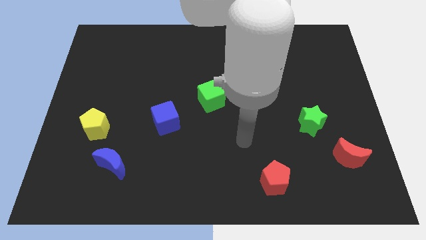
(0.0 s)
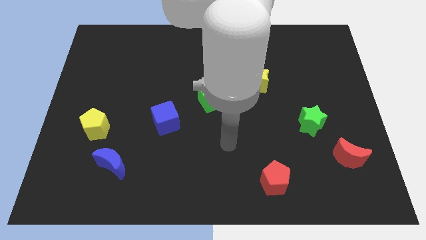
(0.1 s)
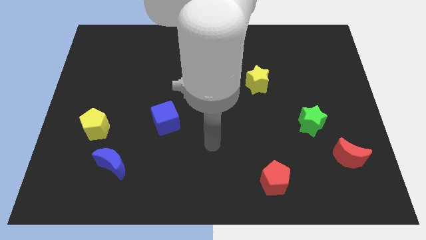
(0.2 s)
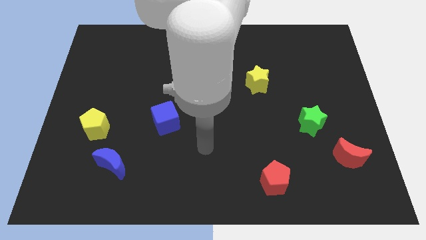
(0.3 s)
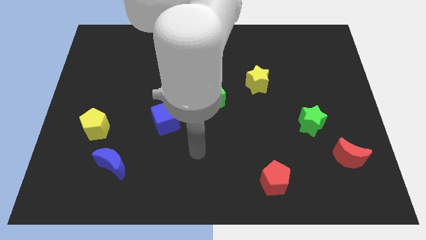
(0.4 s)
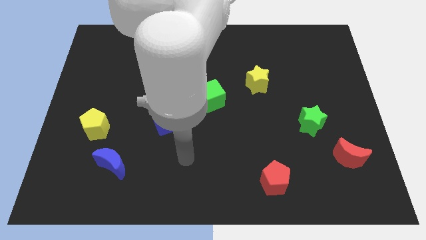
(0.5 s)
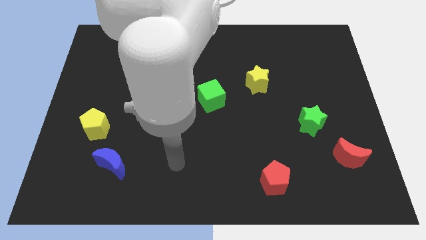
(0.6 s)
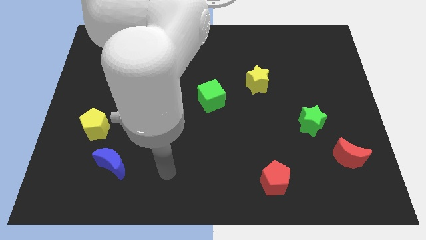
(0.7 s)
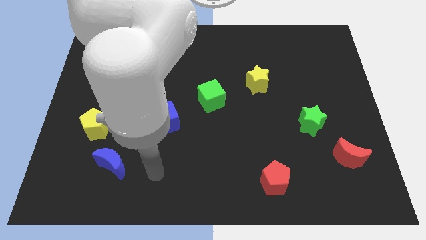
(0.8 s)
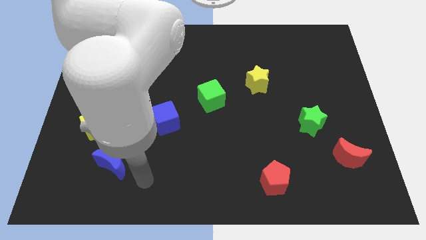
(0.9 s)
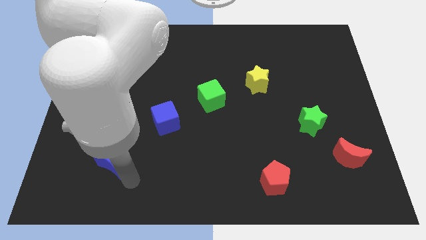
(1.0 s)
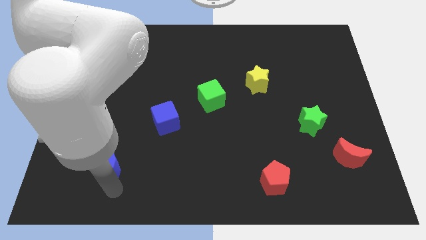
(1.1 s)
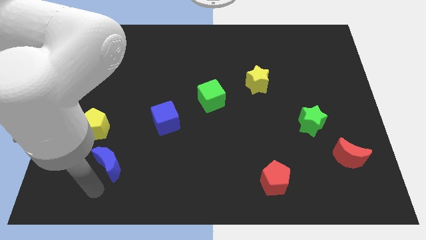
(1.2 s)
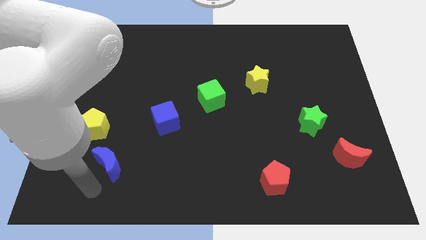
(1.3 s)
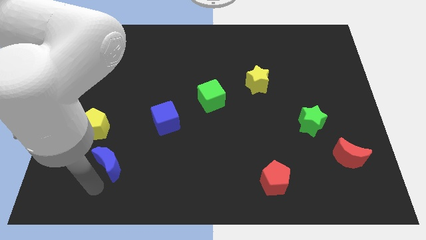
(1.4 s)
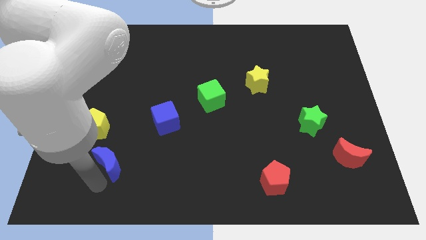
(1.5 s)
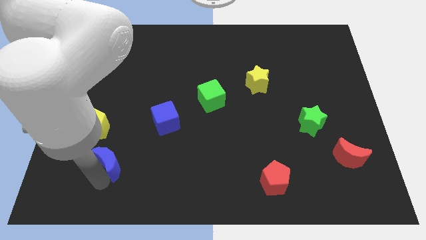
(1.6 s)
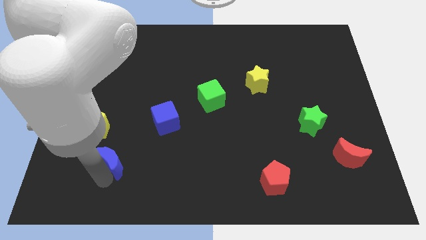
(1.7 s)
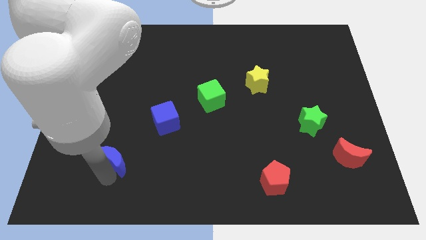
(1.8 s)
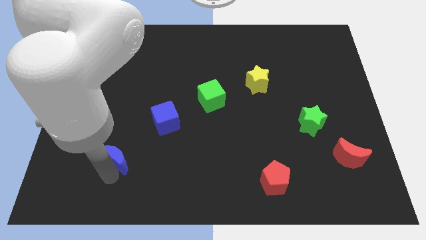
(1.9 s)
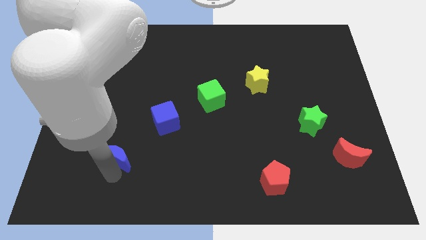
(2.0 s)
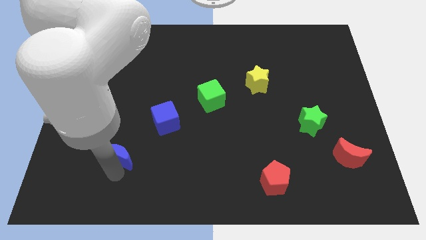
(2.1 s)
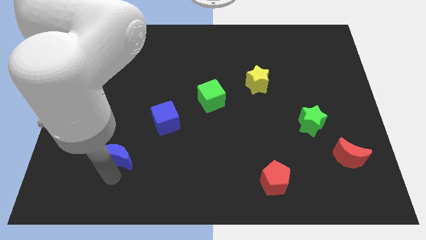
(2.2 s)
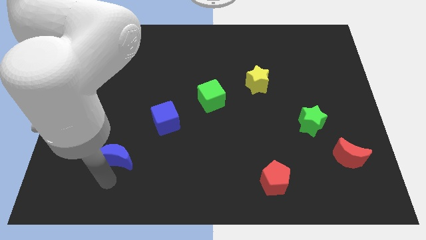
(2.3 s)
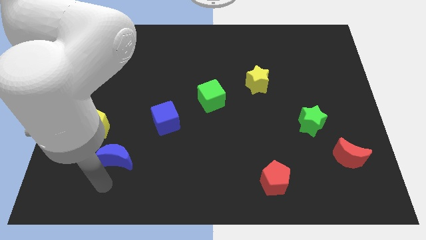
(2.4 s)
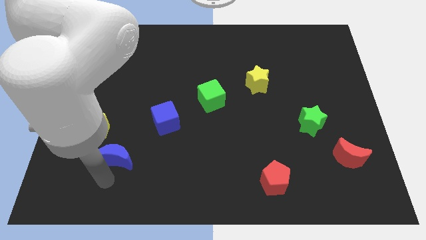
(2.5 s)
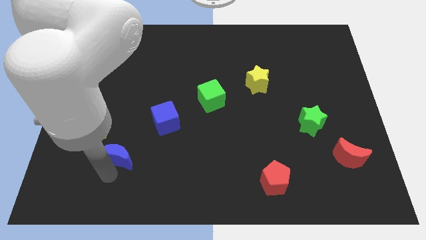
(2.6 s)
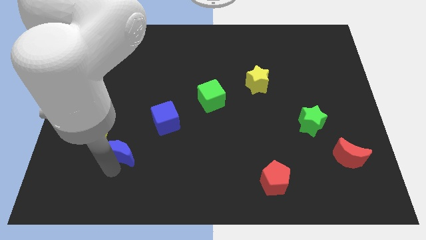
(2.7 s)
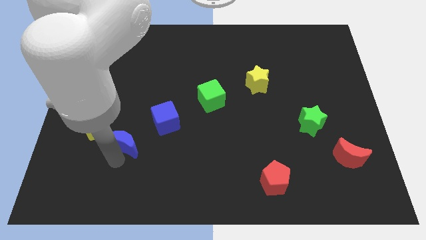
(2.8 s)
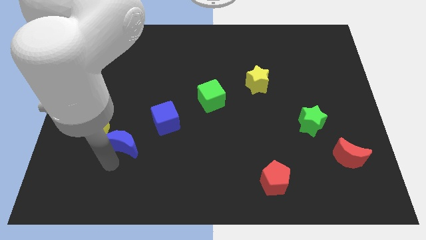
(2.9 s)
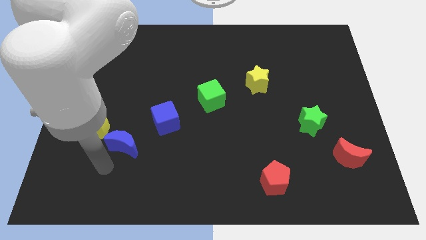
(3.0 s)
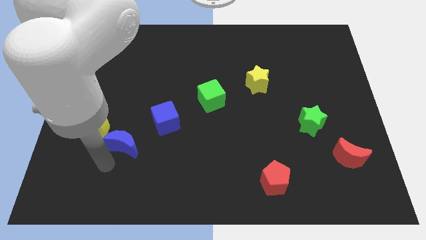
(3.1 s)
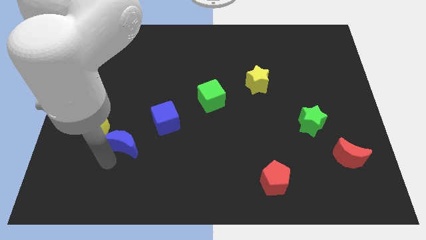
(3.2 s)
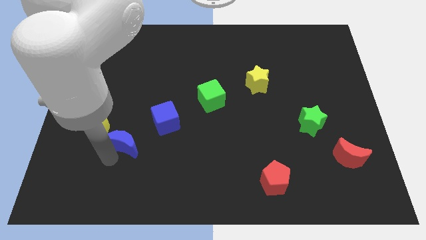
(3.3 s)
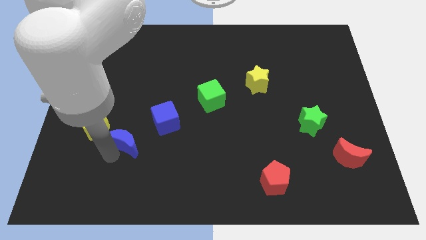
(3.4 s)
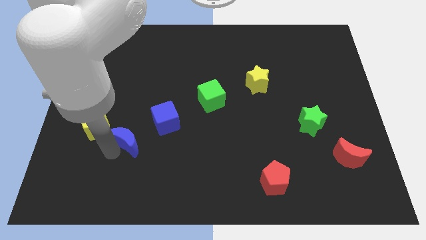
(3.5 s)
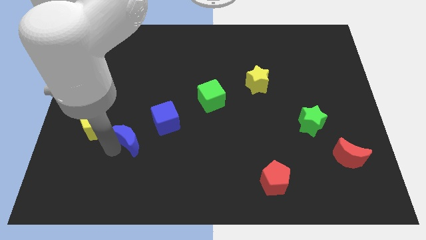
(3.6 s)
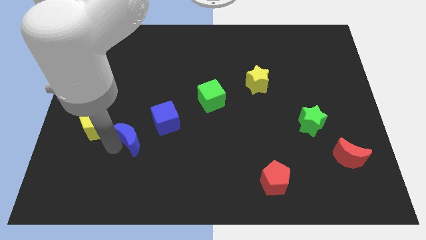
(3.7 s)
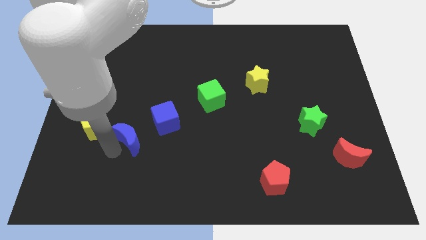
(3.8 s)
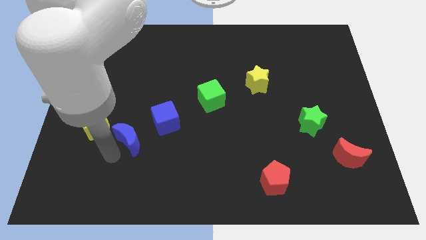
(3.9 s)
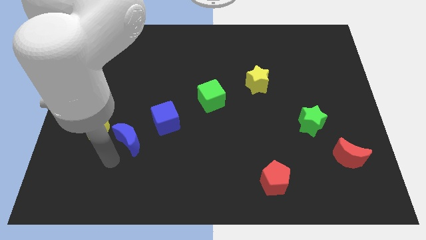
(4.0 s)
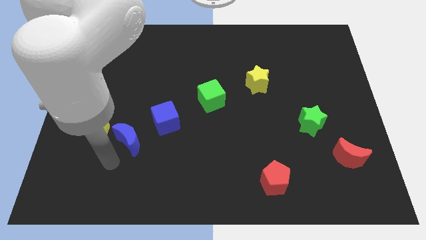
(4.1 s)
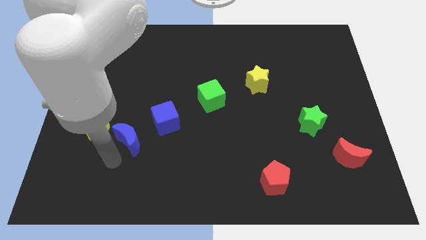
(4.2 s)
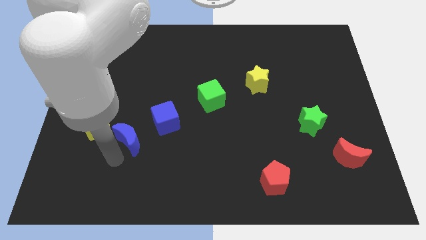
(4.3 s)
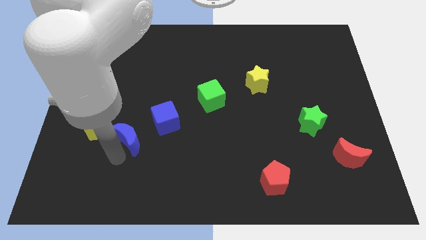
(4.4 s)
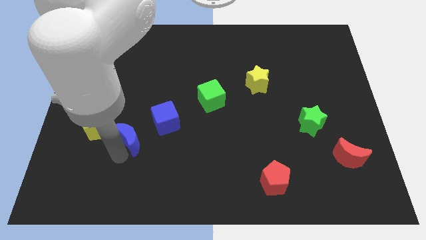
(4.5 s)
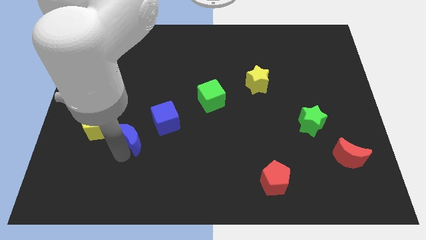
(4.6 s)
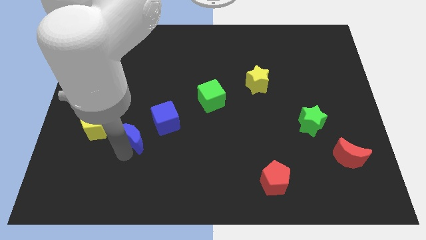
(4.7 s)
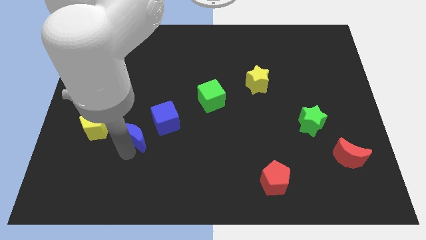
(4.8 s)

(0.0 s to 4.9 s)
slide the blue moon upwards and then right a little bit

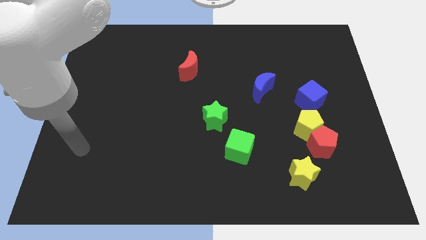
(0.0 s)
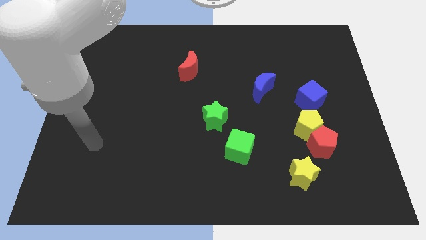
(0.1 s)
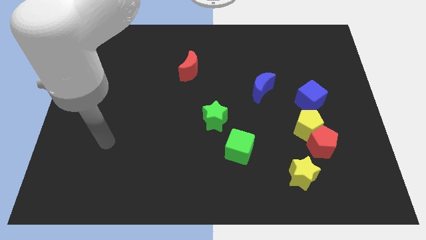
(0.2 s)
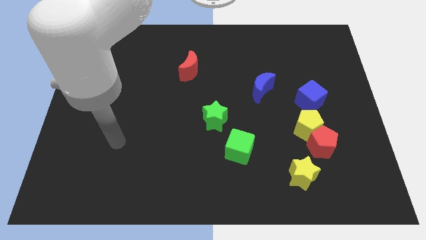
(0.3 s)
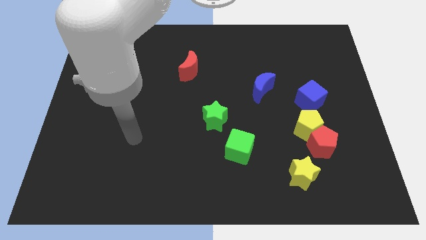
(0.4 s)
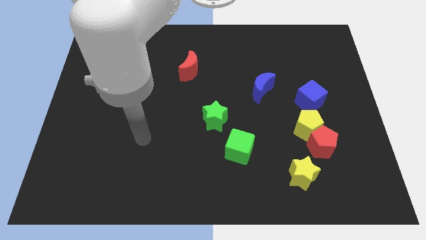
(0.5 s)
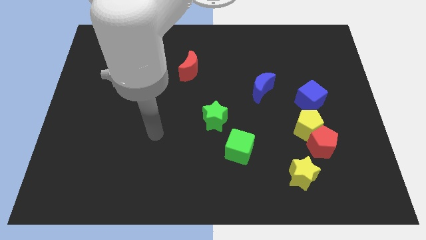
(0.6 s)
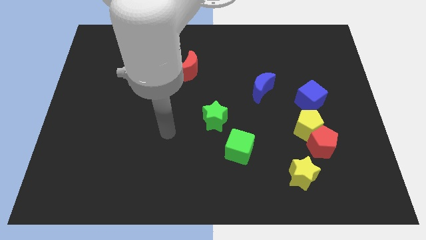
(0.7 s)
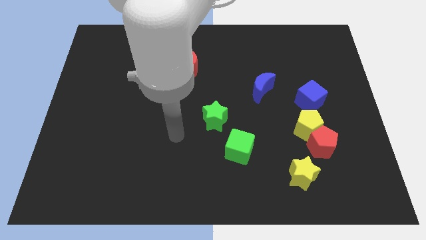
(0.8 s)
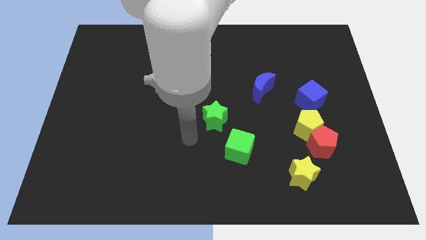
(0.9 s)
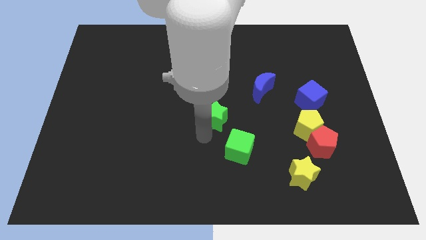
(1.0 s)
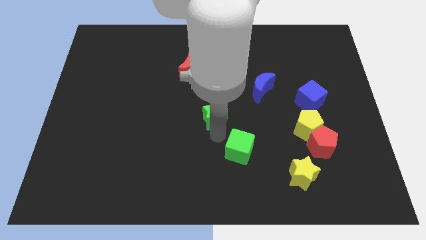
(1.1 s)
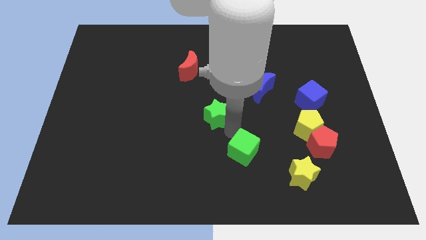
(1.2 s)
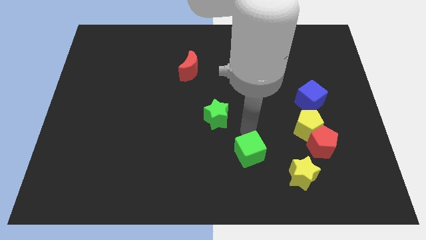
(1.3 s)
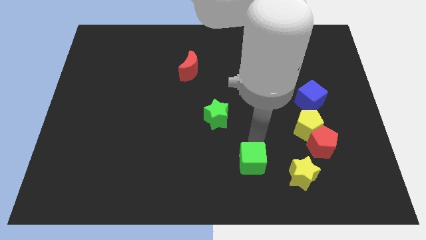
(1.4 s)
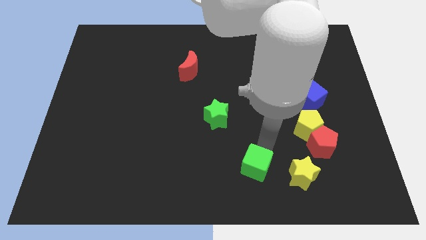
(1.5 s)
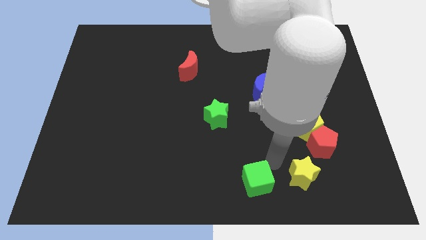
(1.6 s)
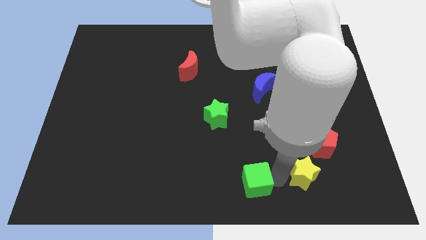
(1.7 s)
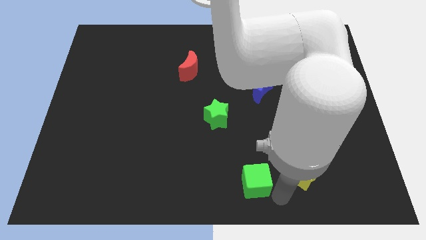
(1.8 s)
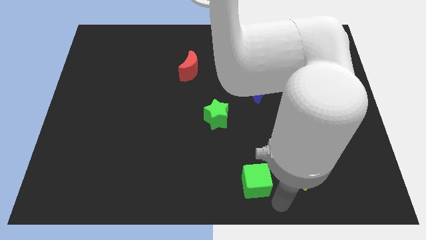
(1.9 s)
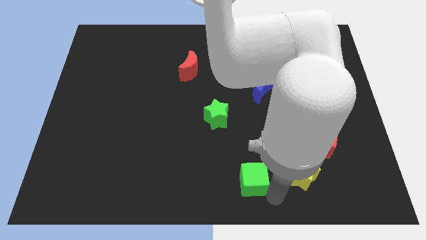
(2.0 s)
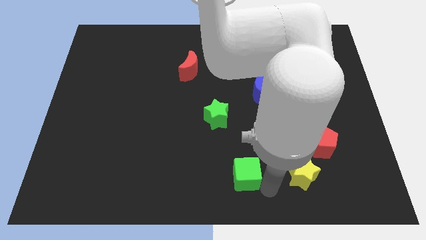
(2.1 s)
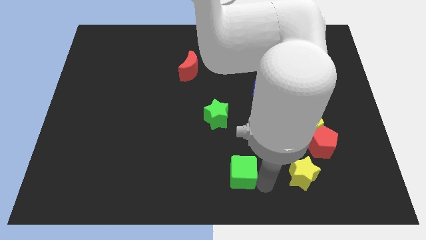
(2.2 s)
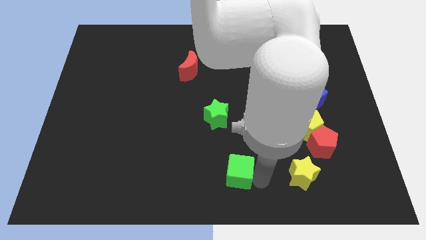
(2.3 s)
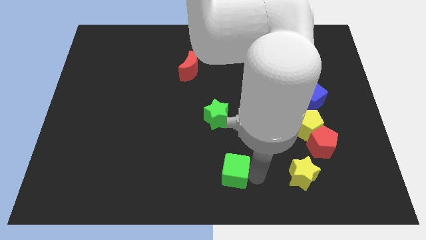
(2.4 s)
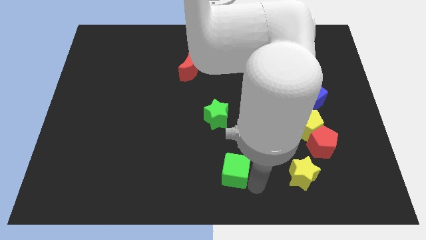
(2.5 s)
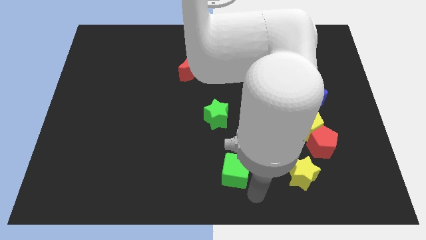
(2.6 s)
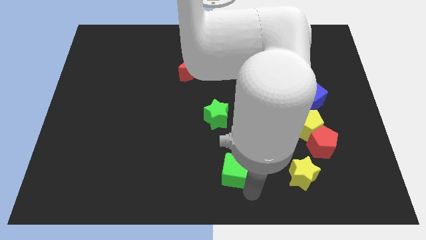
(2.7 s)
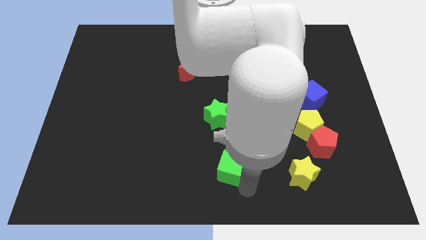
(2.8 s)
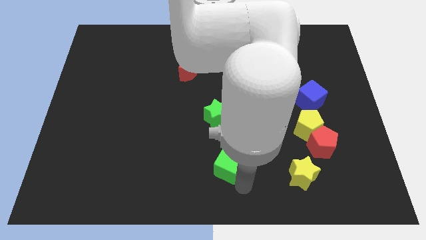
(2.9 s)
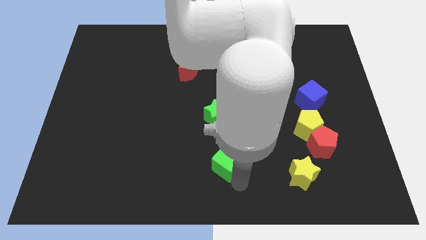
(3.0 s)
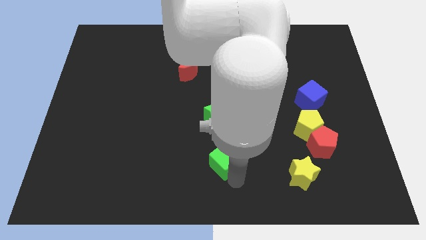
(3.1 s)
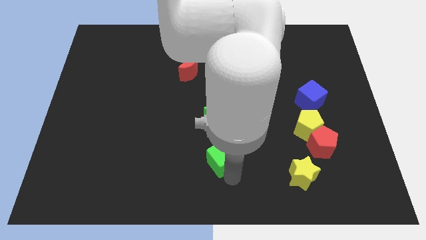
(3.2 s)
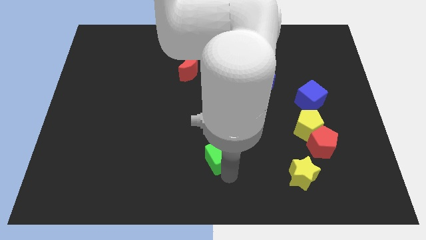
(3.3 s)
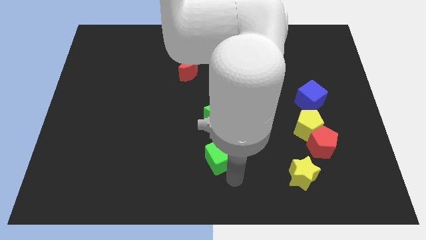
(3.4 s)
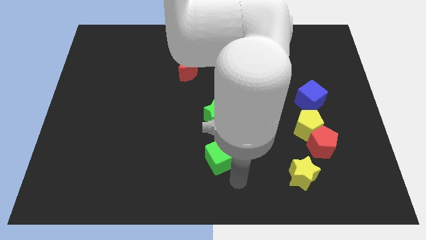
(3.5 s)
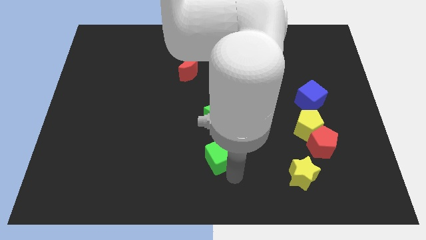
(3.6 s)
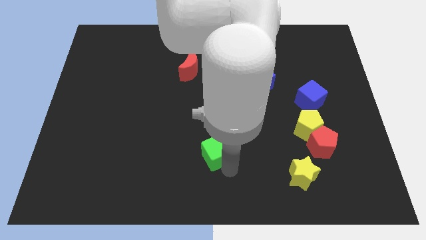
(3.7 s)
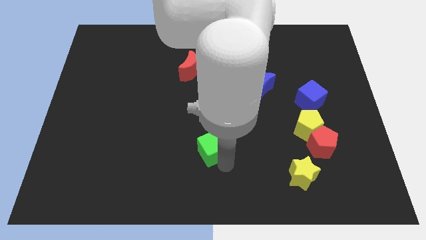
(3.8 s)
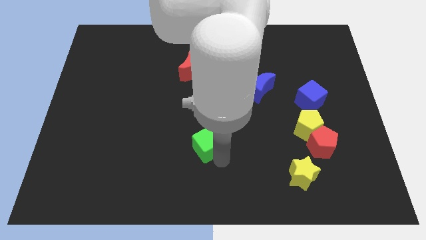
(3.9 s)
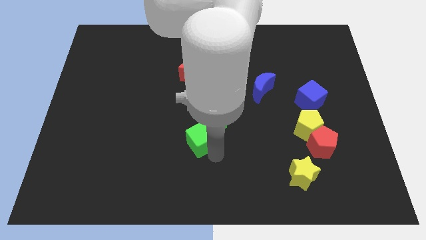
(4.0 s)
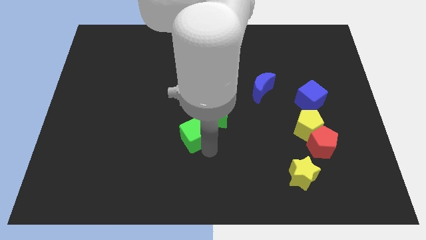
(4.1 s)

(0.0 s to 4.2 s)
slightly move the green cube up and then to the left
